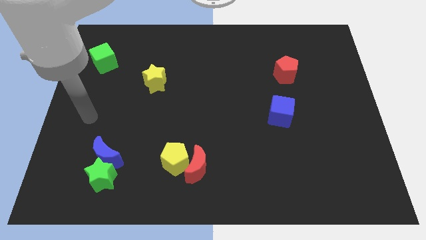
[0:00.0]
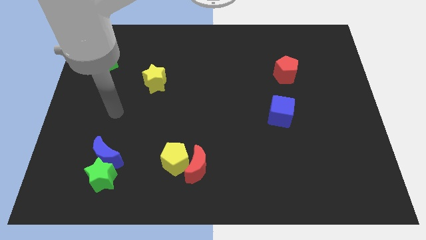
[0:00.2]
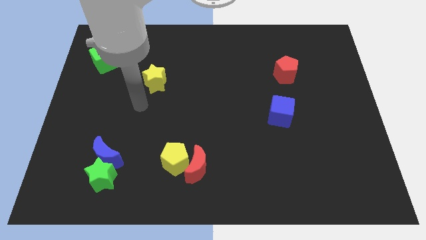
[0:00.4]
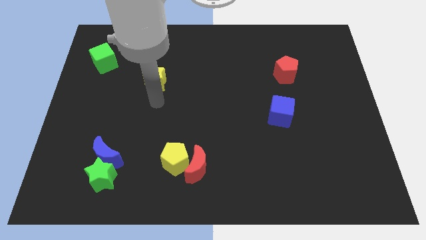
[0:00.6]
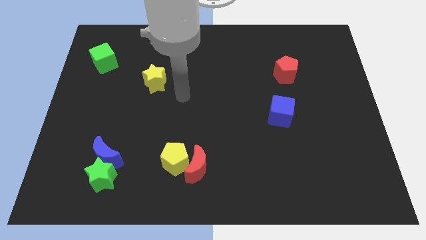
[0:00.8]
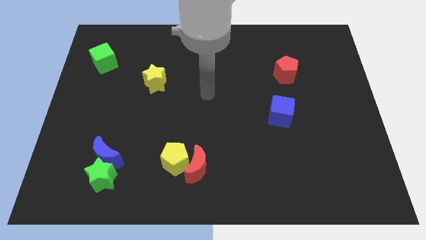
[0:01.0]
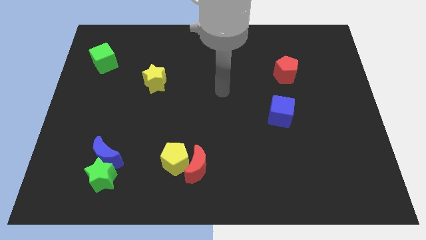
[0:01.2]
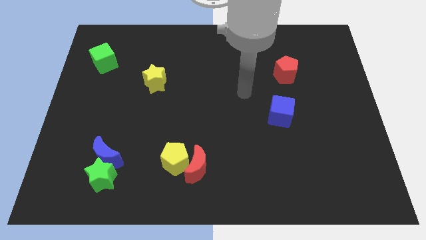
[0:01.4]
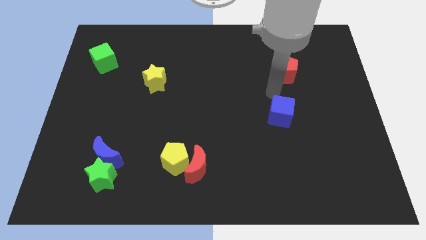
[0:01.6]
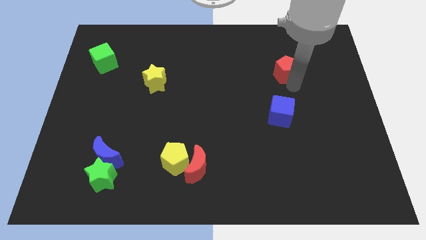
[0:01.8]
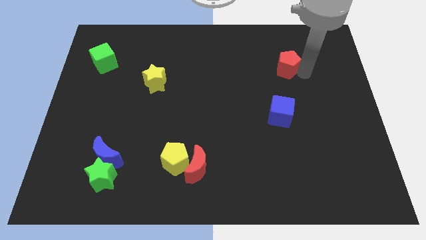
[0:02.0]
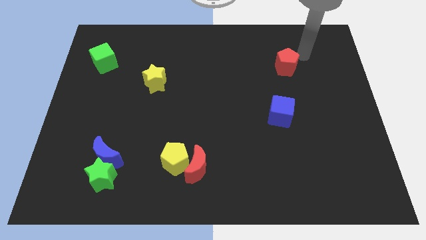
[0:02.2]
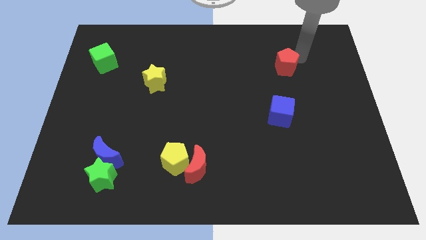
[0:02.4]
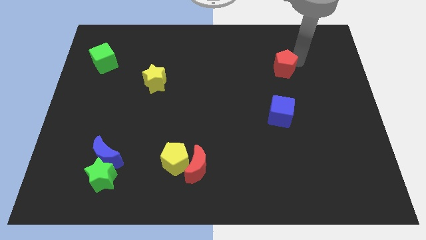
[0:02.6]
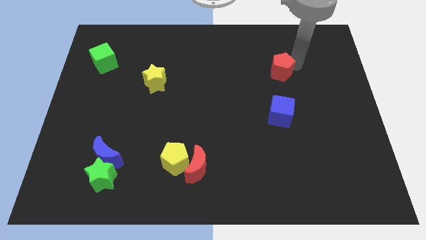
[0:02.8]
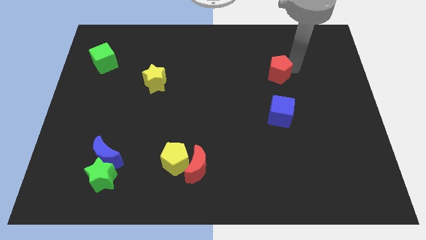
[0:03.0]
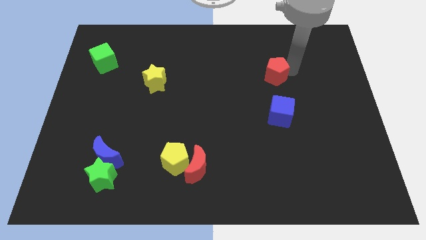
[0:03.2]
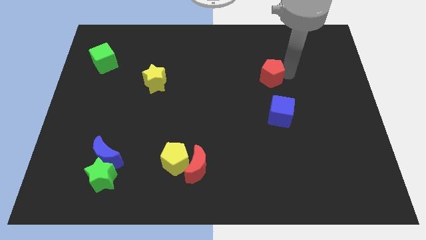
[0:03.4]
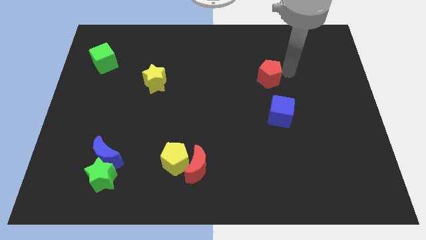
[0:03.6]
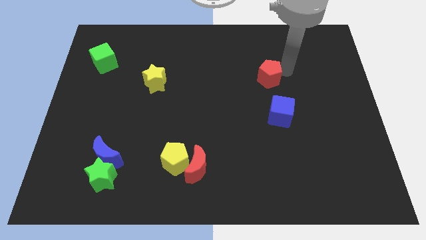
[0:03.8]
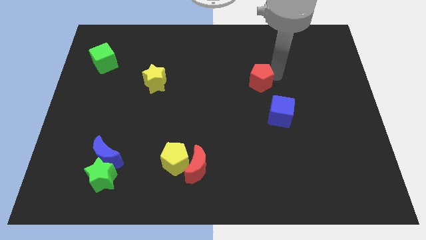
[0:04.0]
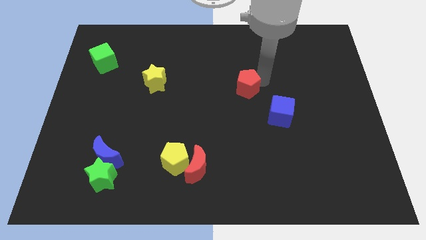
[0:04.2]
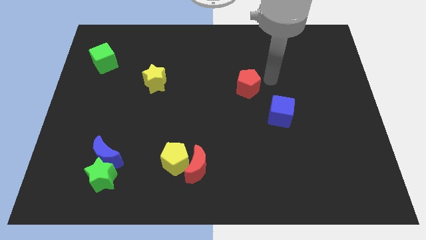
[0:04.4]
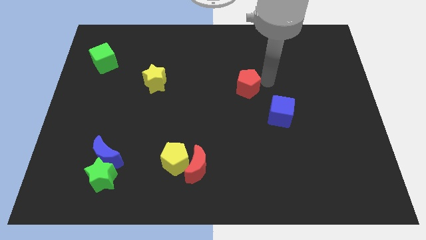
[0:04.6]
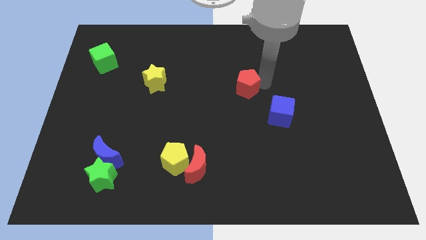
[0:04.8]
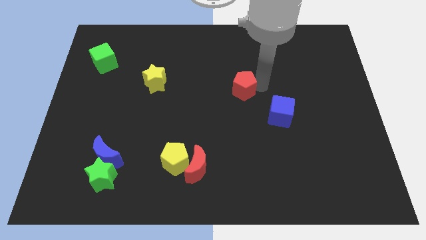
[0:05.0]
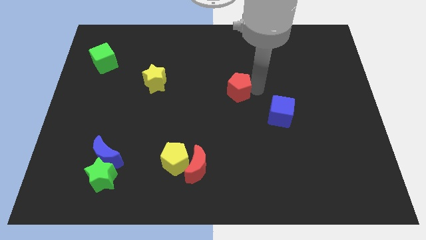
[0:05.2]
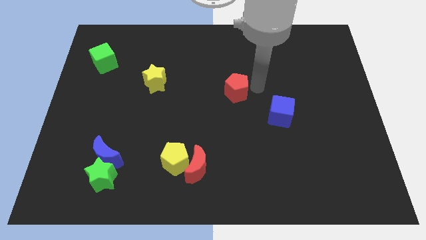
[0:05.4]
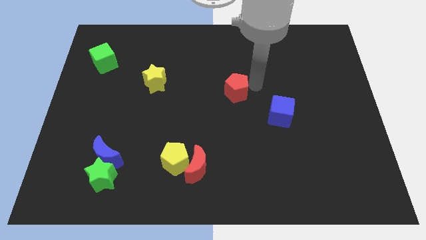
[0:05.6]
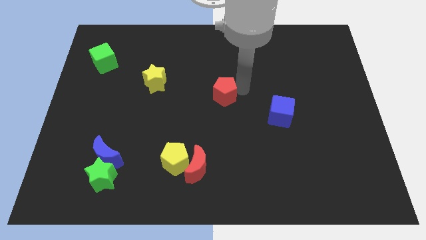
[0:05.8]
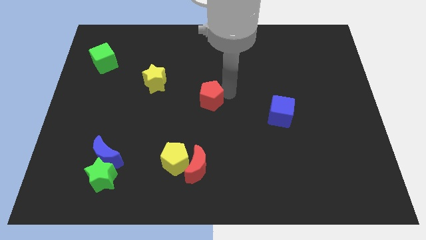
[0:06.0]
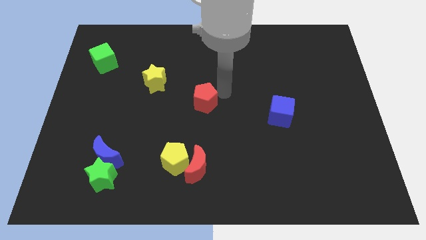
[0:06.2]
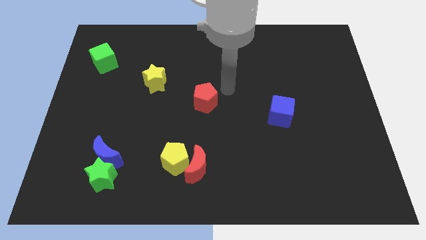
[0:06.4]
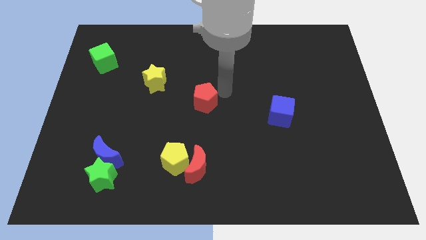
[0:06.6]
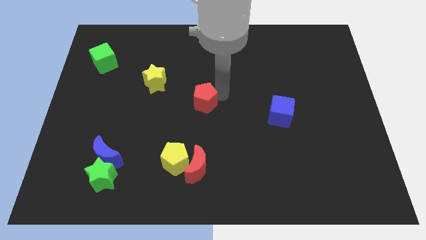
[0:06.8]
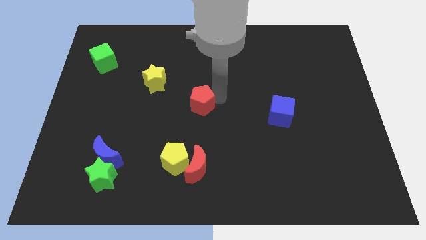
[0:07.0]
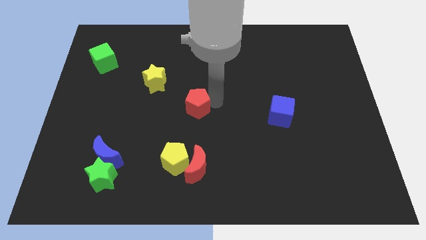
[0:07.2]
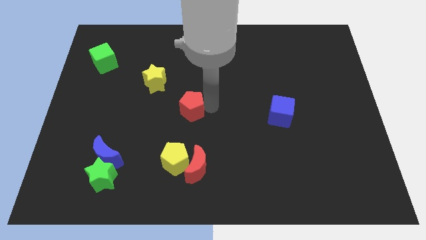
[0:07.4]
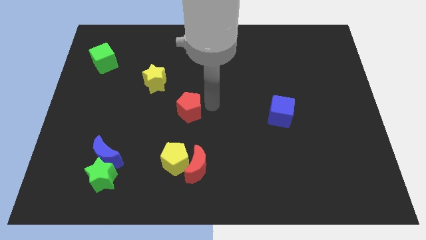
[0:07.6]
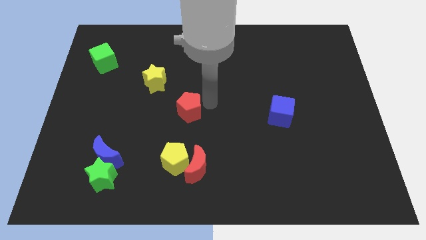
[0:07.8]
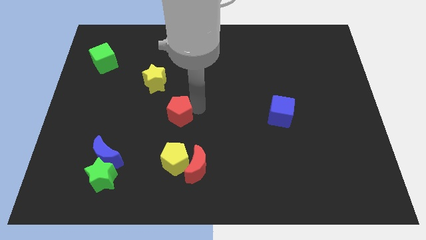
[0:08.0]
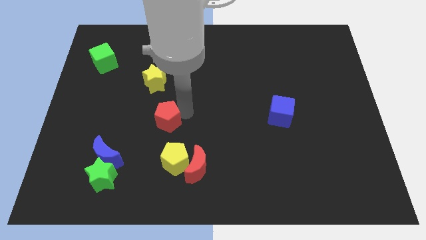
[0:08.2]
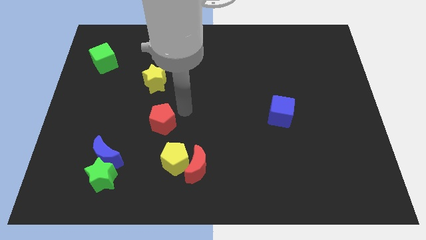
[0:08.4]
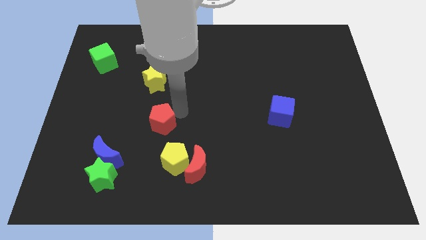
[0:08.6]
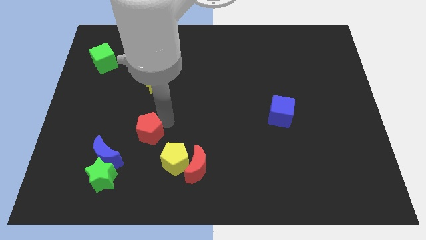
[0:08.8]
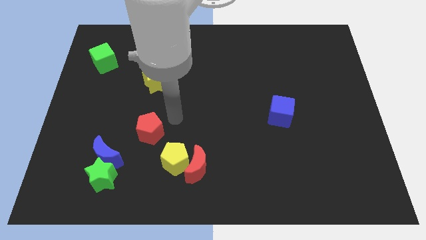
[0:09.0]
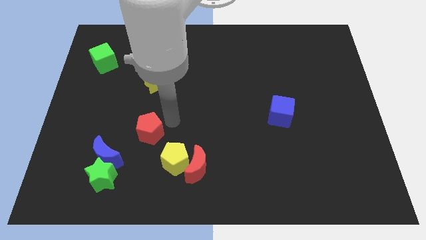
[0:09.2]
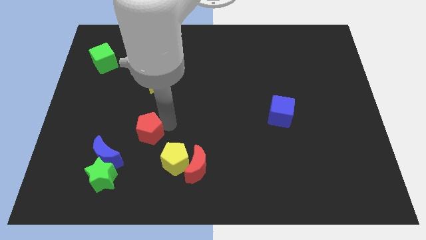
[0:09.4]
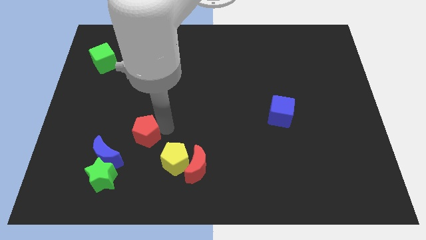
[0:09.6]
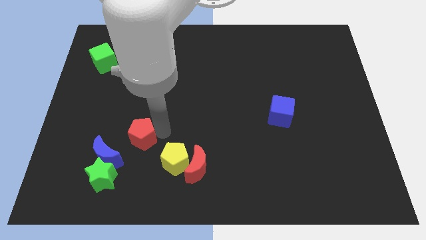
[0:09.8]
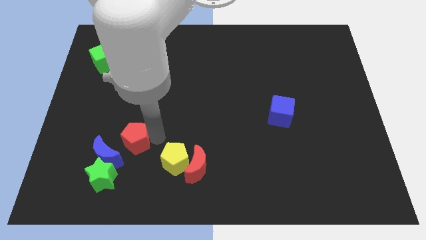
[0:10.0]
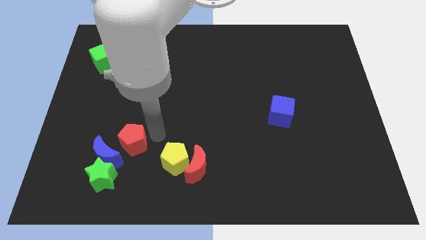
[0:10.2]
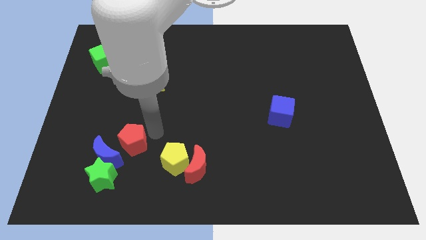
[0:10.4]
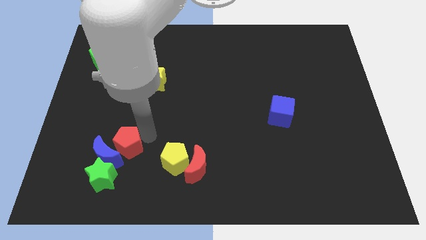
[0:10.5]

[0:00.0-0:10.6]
put the red pentagon towards the blue moon

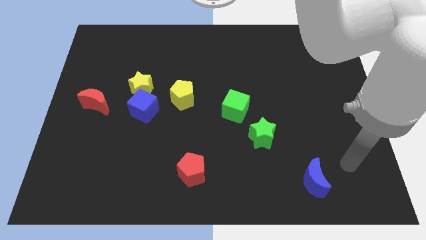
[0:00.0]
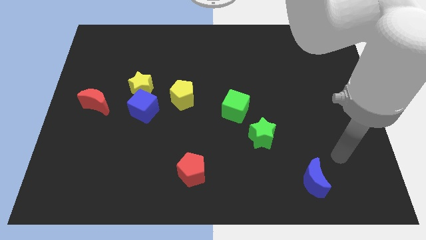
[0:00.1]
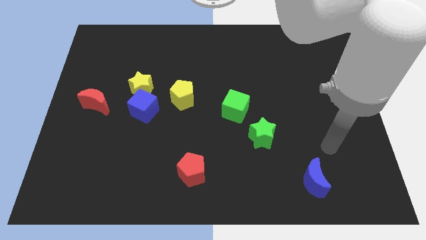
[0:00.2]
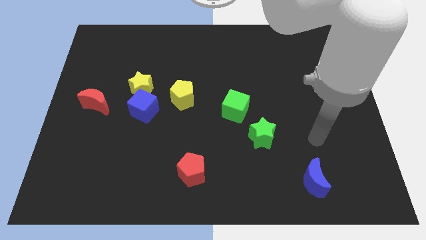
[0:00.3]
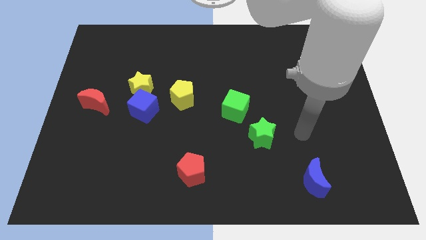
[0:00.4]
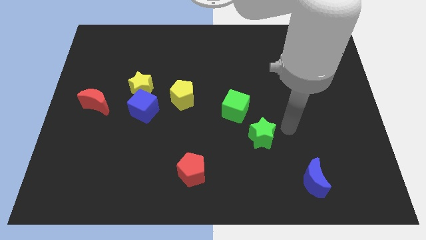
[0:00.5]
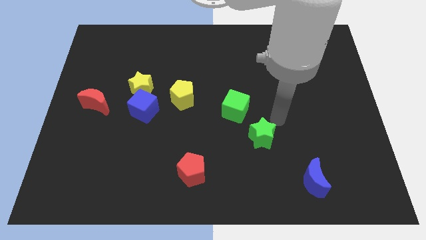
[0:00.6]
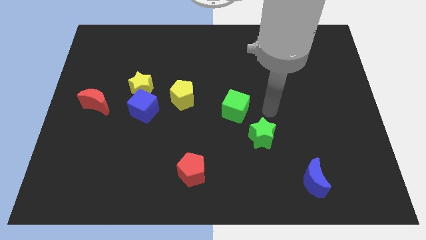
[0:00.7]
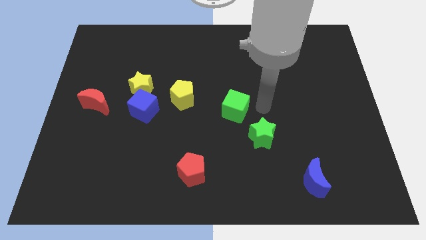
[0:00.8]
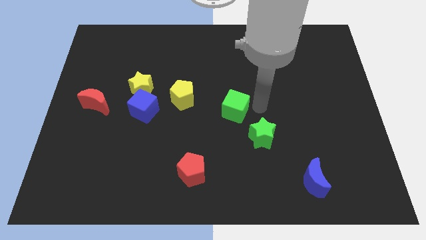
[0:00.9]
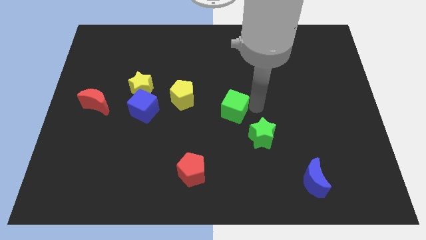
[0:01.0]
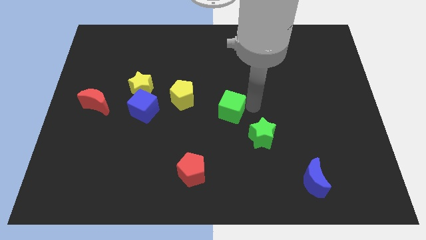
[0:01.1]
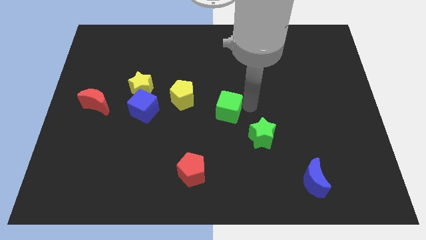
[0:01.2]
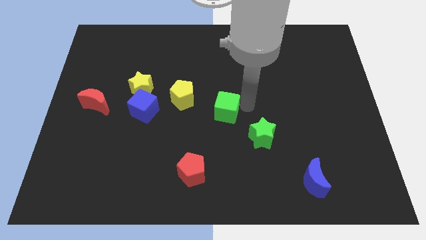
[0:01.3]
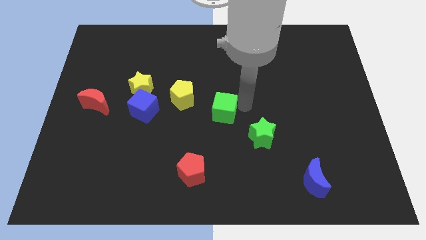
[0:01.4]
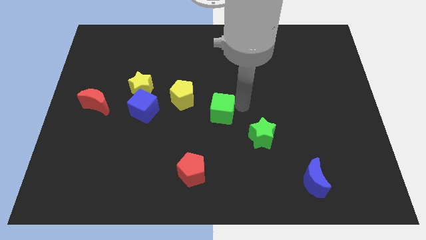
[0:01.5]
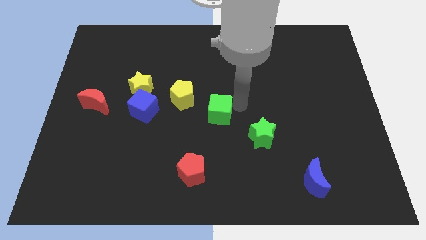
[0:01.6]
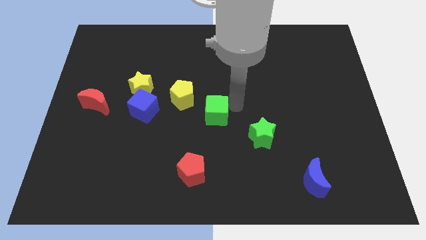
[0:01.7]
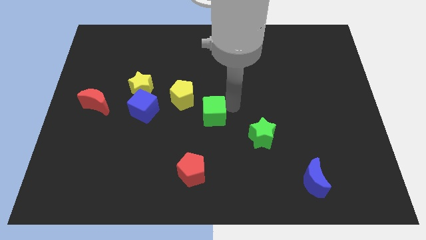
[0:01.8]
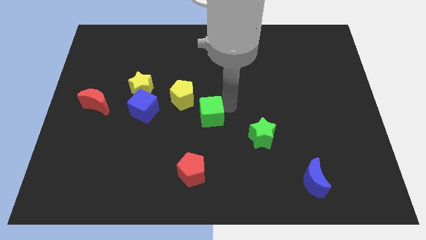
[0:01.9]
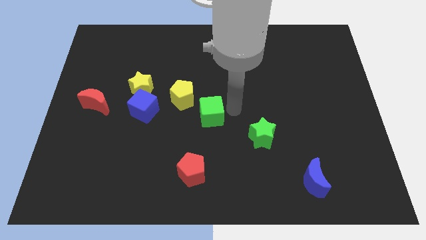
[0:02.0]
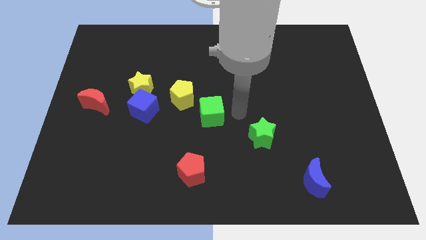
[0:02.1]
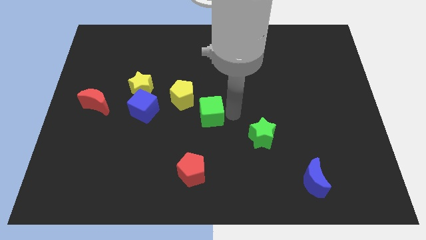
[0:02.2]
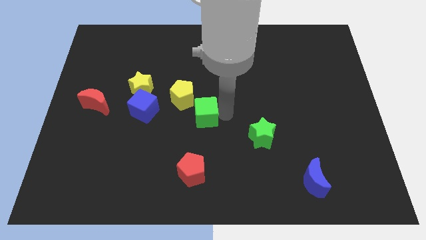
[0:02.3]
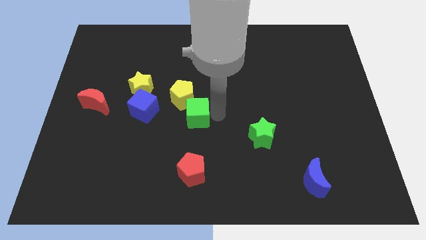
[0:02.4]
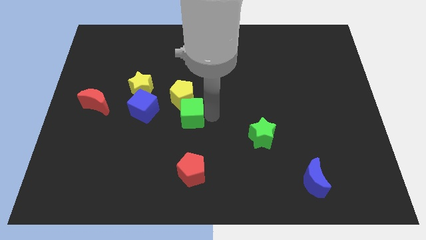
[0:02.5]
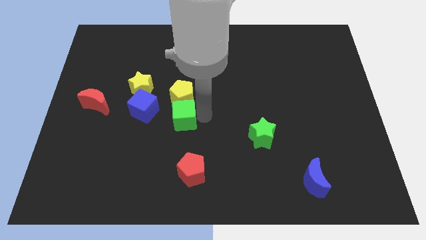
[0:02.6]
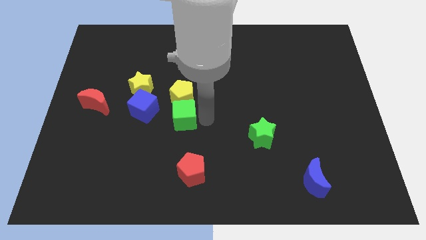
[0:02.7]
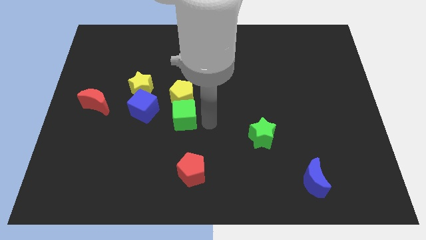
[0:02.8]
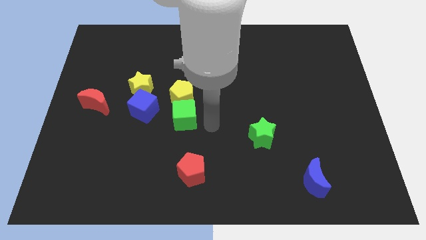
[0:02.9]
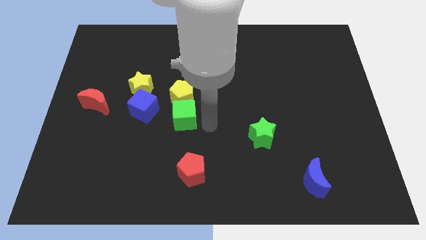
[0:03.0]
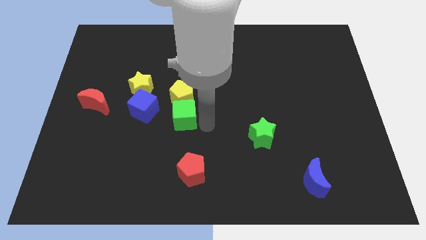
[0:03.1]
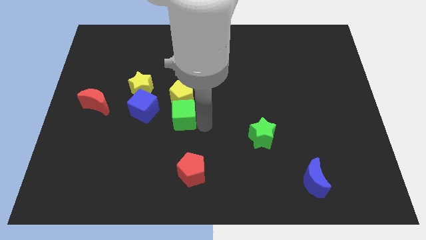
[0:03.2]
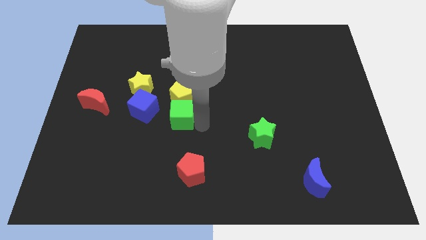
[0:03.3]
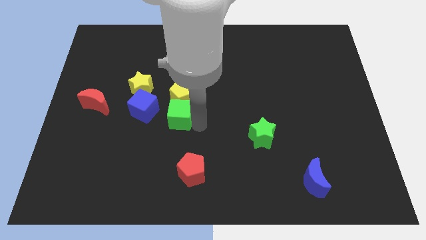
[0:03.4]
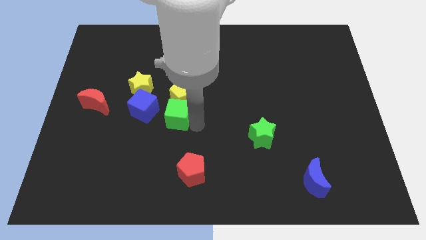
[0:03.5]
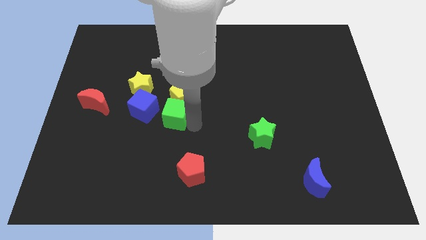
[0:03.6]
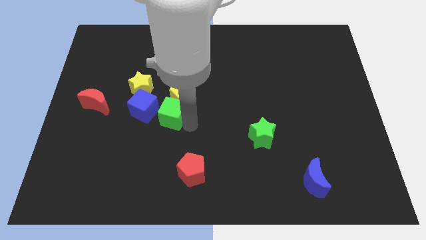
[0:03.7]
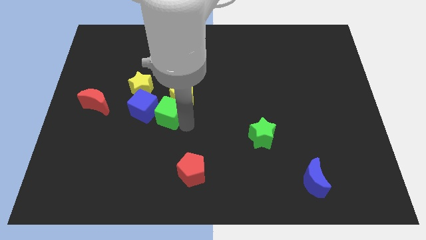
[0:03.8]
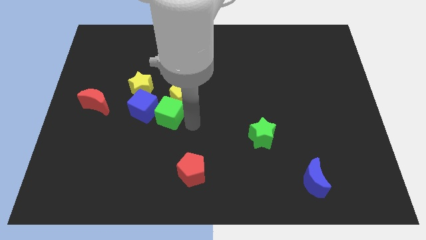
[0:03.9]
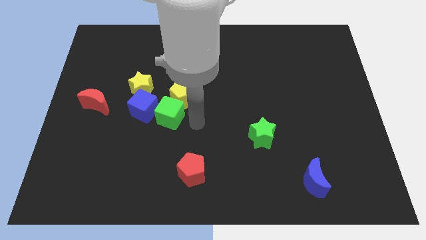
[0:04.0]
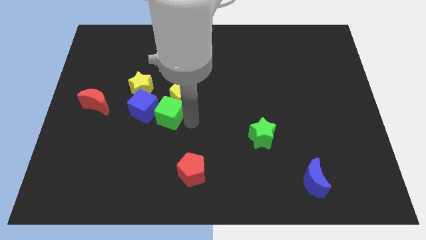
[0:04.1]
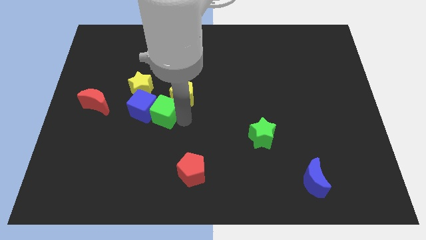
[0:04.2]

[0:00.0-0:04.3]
slide the green cube close to the blue cube
